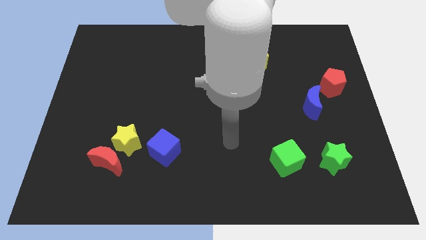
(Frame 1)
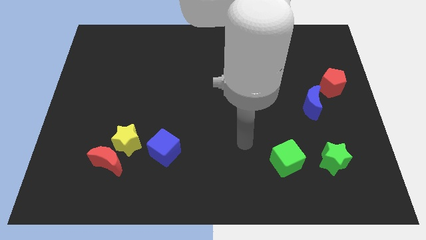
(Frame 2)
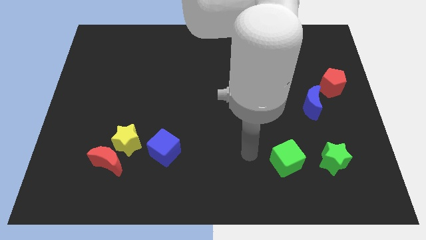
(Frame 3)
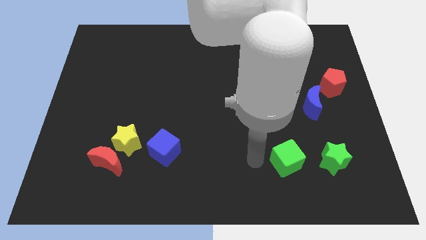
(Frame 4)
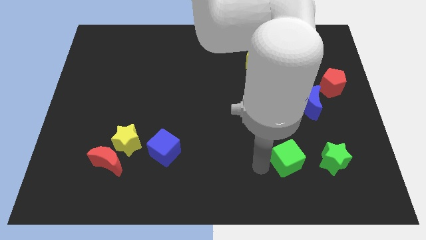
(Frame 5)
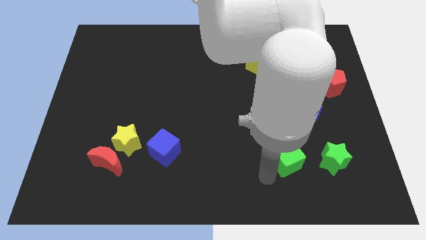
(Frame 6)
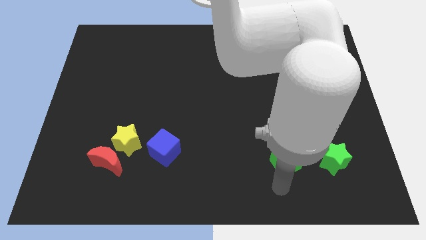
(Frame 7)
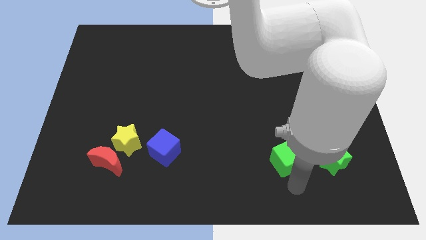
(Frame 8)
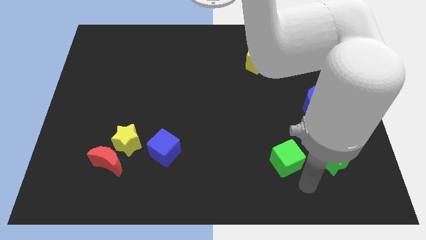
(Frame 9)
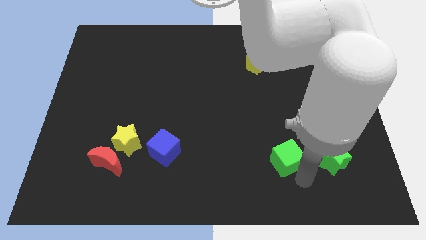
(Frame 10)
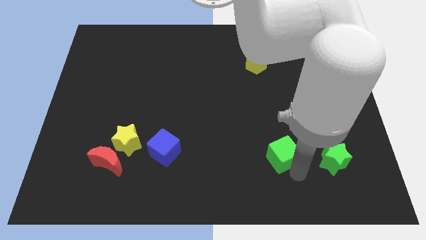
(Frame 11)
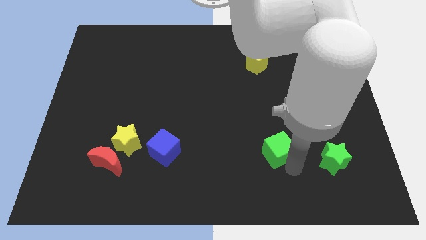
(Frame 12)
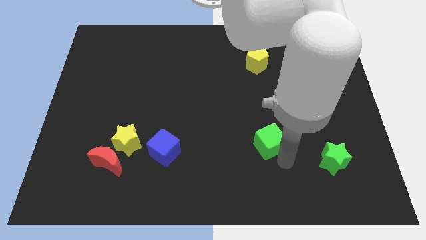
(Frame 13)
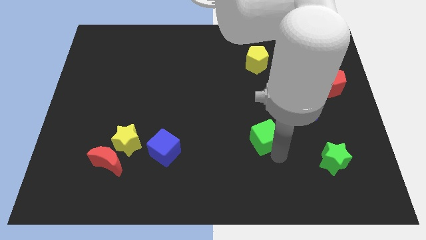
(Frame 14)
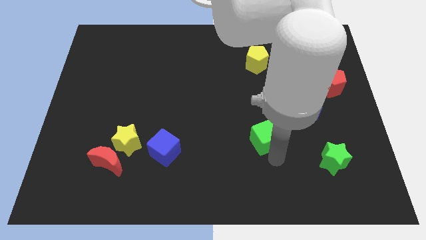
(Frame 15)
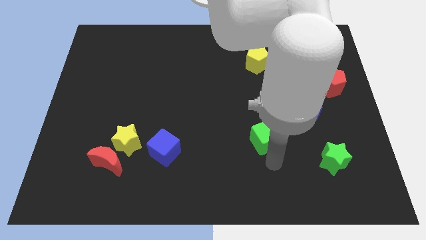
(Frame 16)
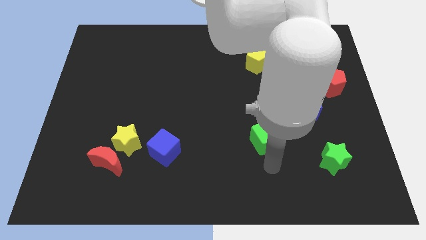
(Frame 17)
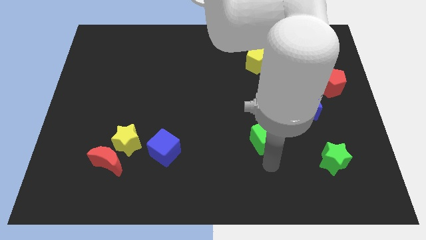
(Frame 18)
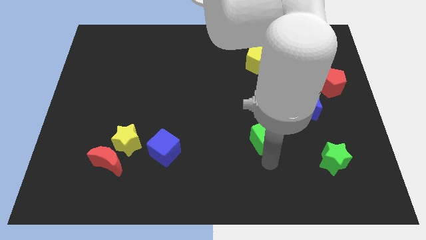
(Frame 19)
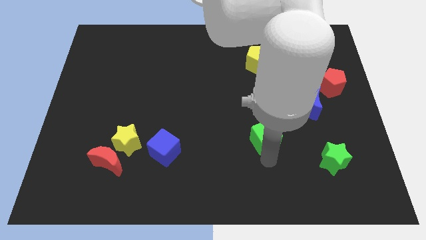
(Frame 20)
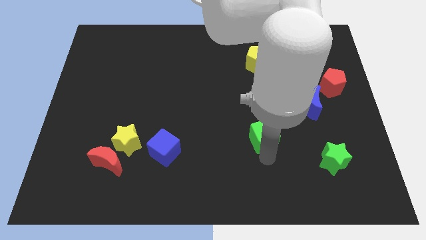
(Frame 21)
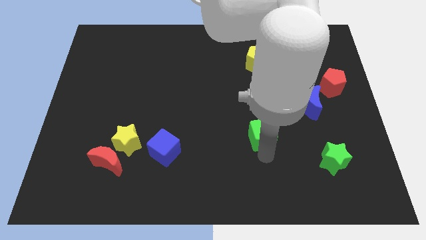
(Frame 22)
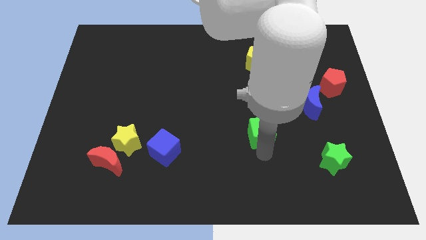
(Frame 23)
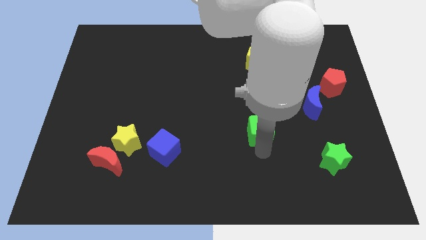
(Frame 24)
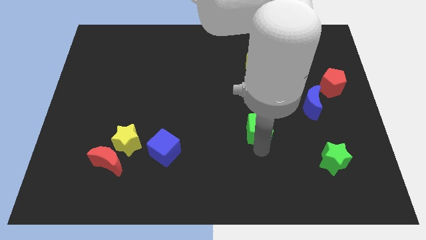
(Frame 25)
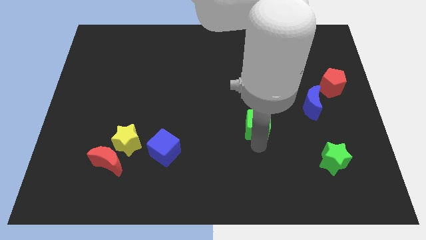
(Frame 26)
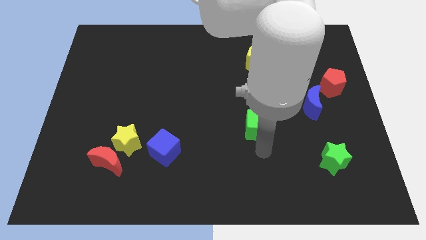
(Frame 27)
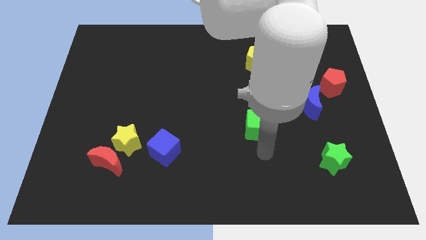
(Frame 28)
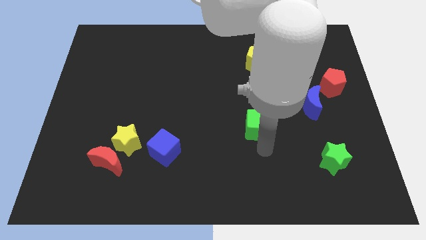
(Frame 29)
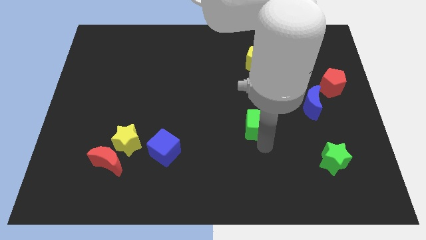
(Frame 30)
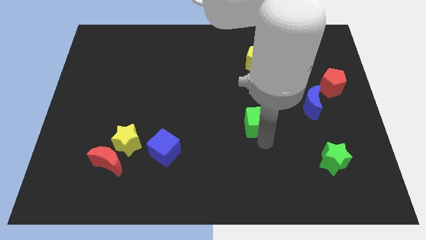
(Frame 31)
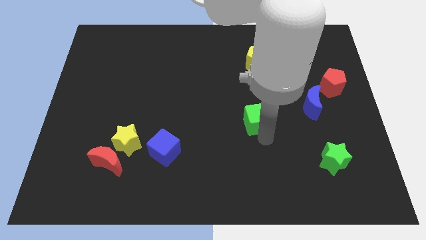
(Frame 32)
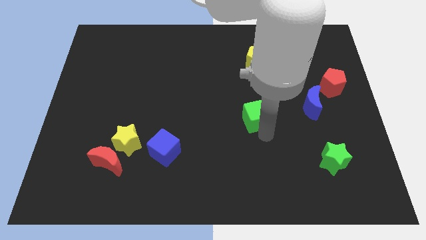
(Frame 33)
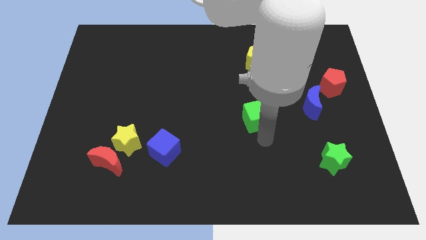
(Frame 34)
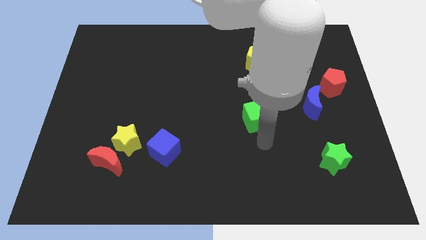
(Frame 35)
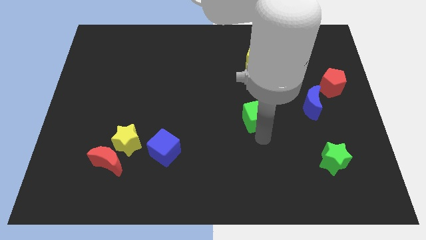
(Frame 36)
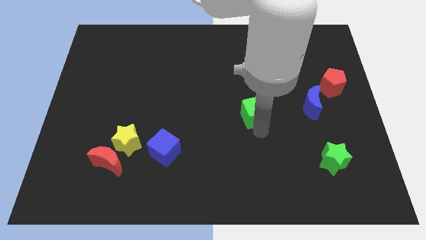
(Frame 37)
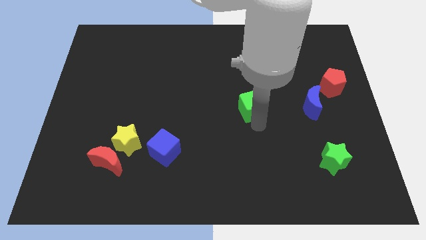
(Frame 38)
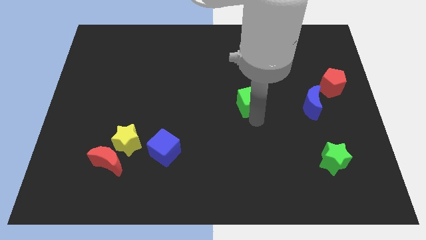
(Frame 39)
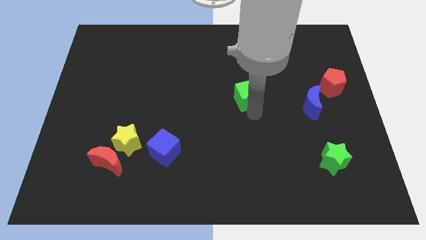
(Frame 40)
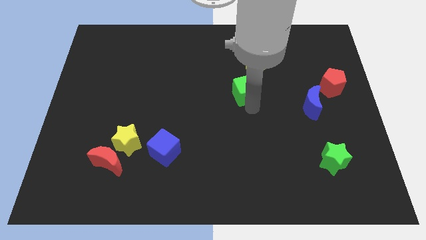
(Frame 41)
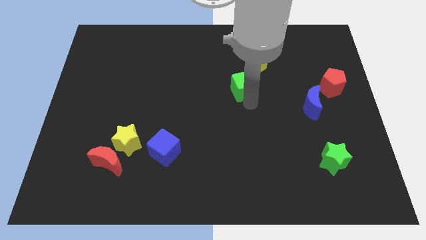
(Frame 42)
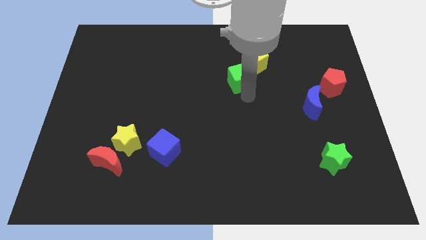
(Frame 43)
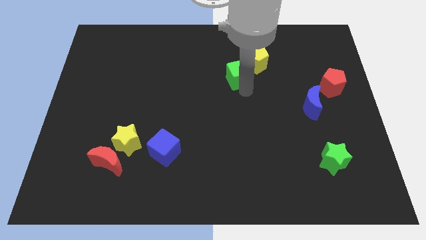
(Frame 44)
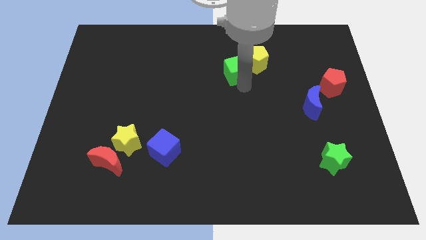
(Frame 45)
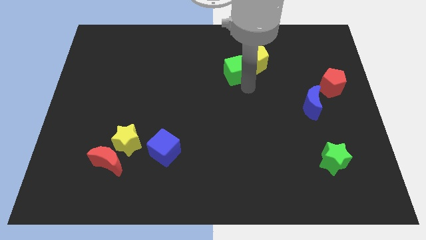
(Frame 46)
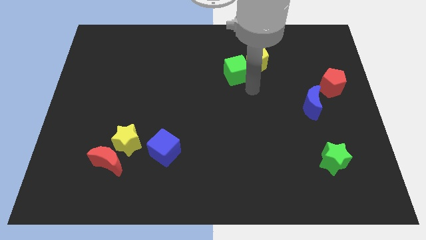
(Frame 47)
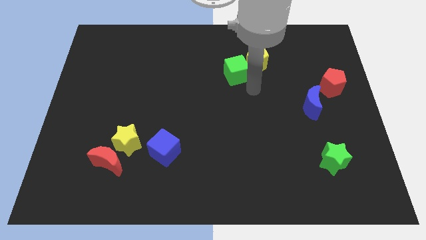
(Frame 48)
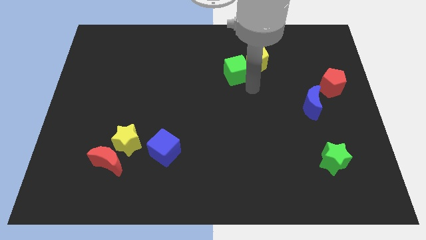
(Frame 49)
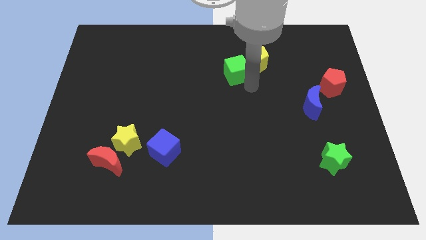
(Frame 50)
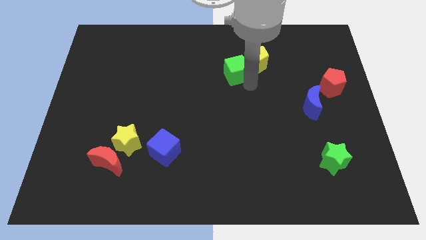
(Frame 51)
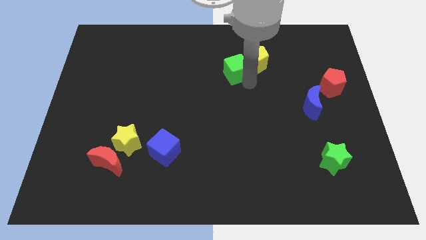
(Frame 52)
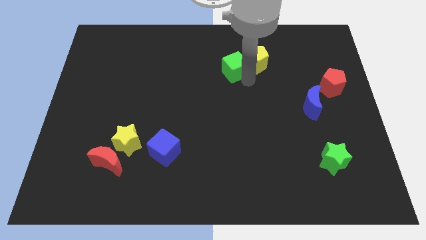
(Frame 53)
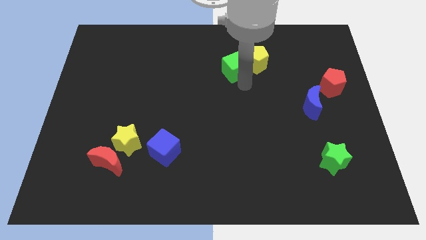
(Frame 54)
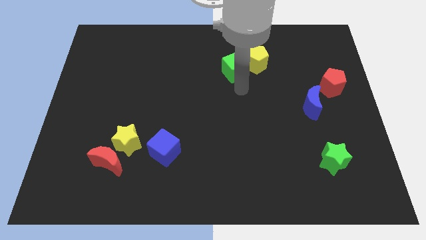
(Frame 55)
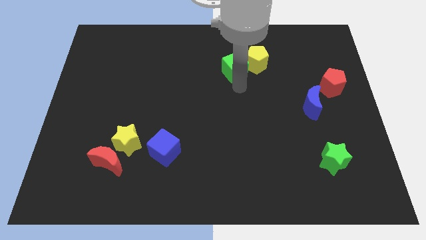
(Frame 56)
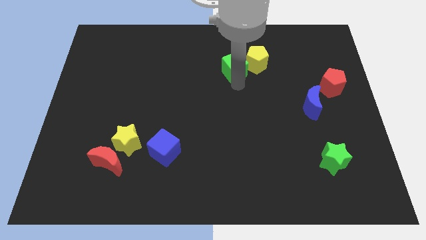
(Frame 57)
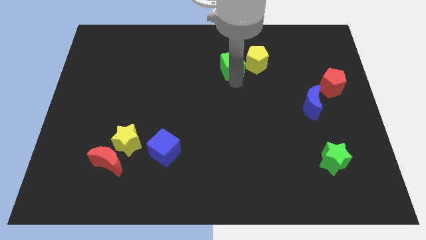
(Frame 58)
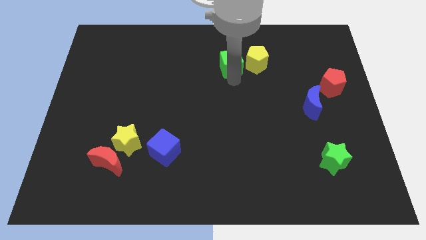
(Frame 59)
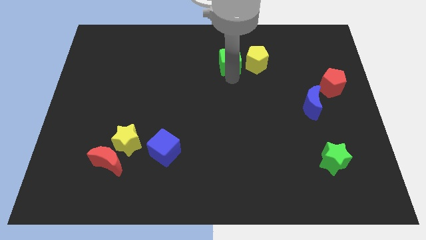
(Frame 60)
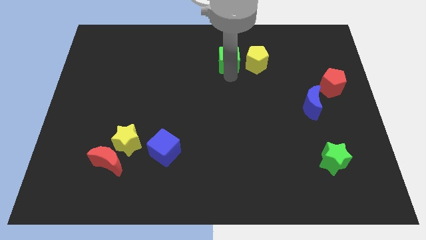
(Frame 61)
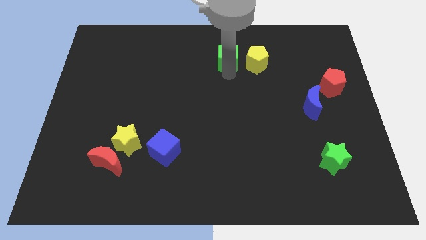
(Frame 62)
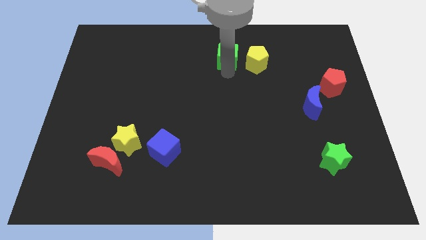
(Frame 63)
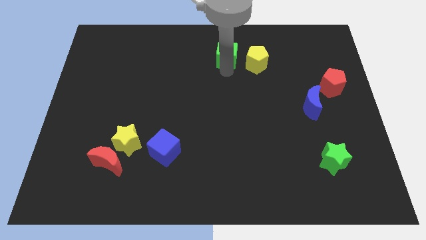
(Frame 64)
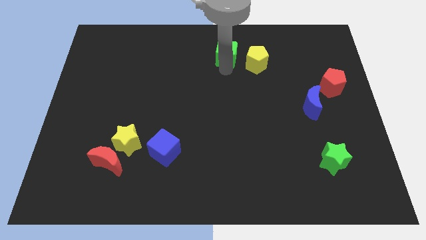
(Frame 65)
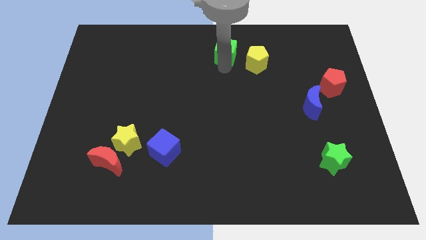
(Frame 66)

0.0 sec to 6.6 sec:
put the green cube to the top side

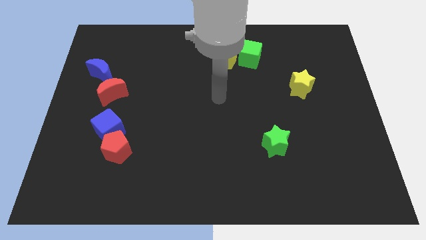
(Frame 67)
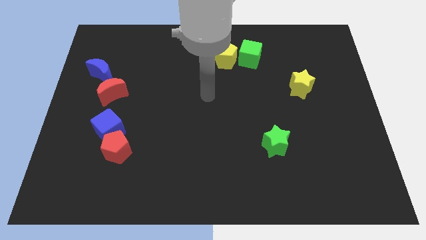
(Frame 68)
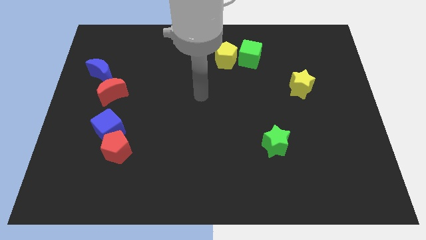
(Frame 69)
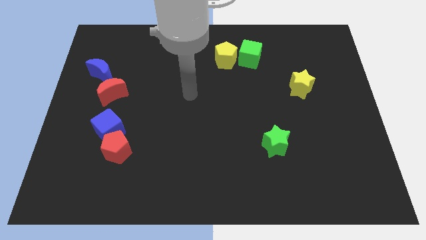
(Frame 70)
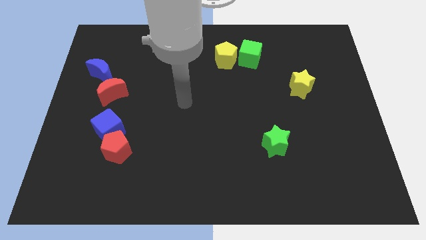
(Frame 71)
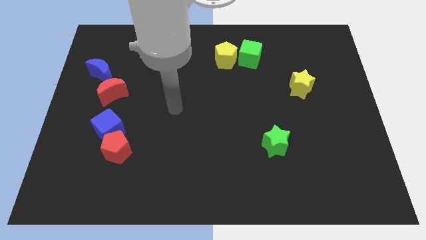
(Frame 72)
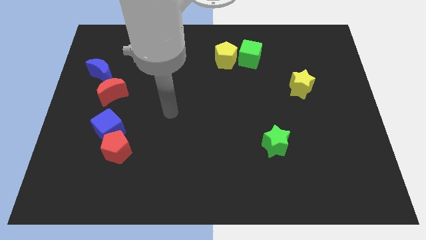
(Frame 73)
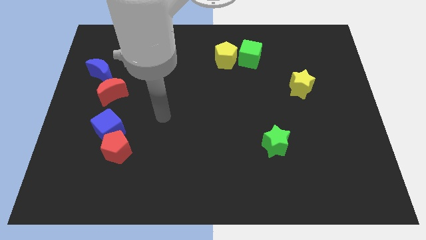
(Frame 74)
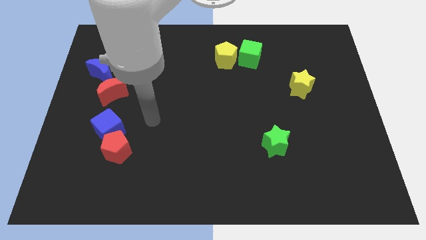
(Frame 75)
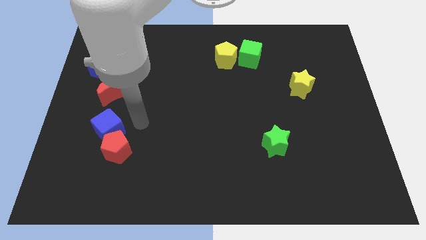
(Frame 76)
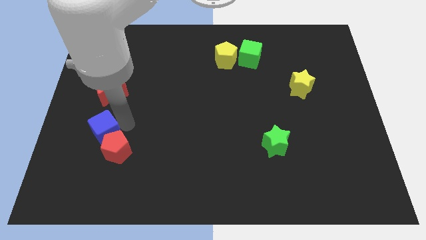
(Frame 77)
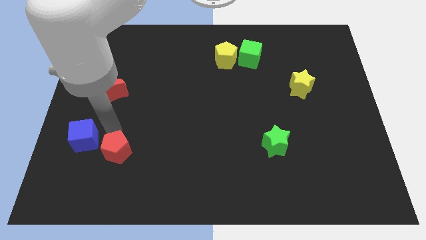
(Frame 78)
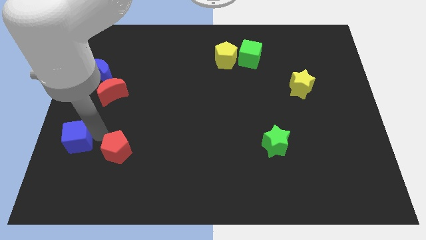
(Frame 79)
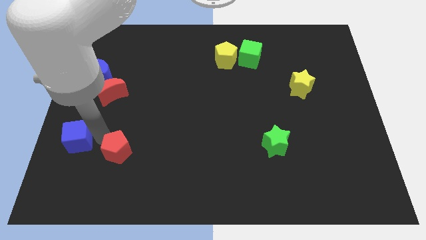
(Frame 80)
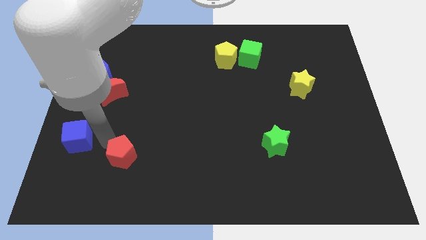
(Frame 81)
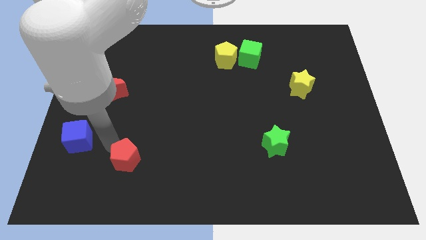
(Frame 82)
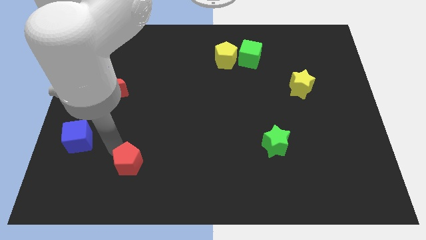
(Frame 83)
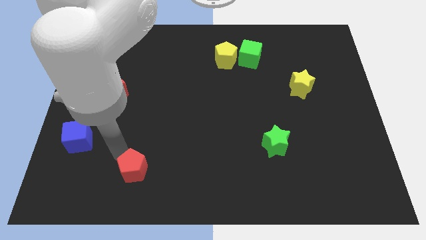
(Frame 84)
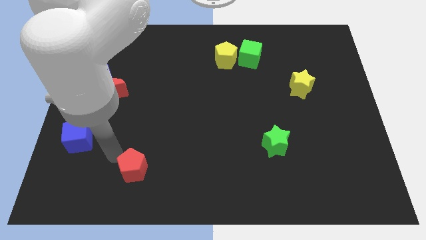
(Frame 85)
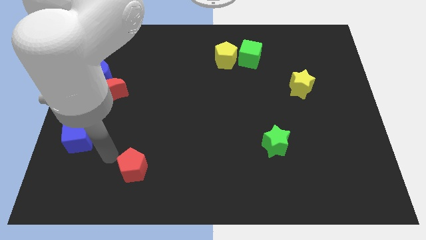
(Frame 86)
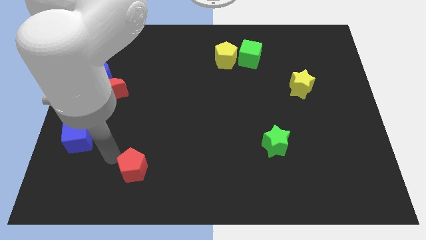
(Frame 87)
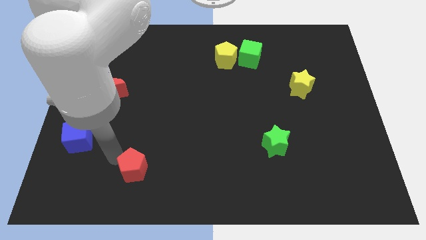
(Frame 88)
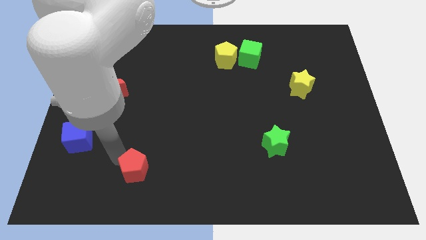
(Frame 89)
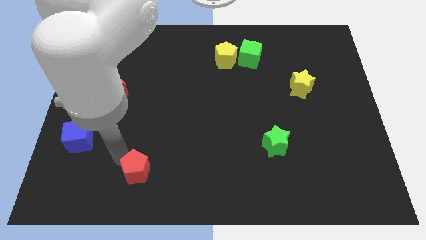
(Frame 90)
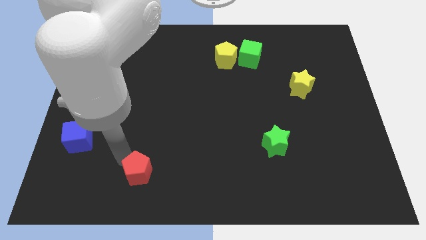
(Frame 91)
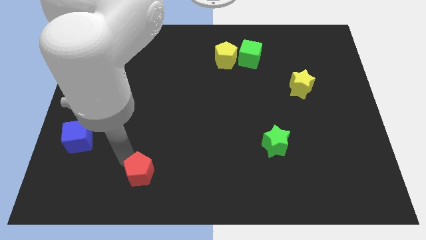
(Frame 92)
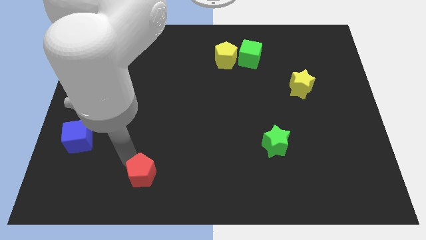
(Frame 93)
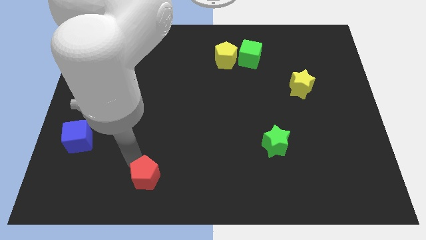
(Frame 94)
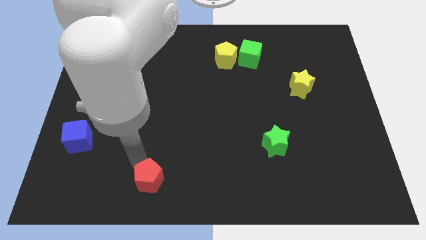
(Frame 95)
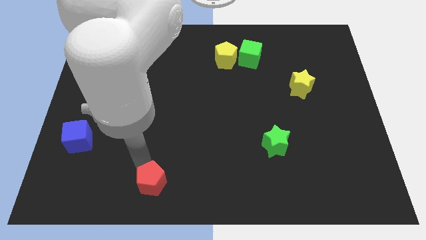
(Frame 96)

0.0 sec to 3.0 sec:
push the red pentagon to the bottom
